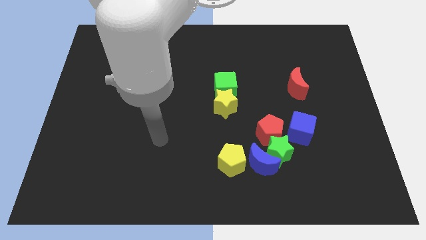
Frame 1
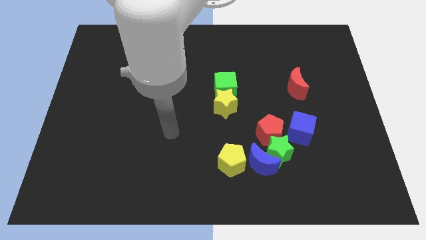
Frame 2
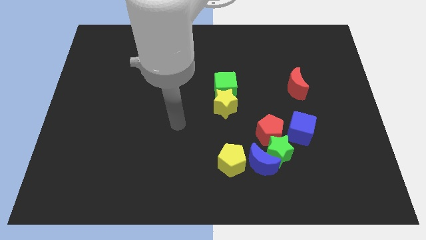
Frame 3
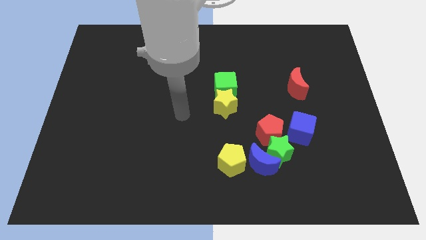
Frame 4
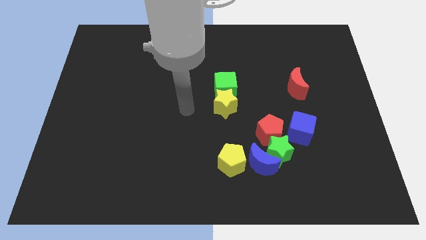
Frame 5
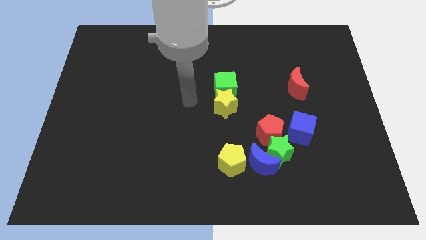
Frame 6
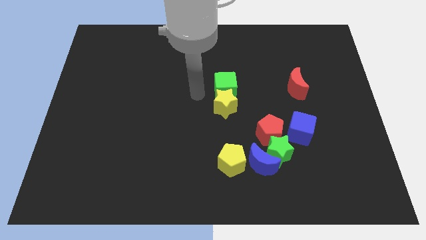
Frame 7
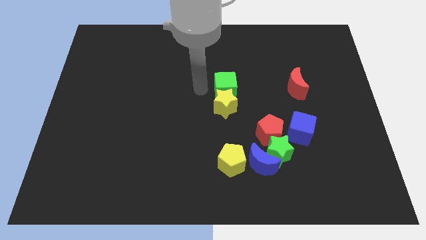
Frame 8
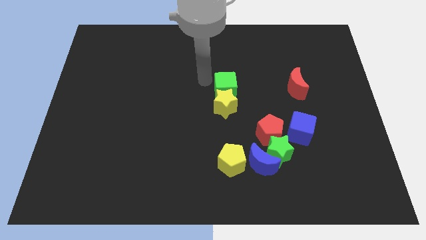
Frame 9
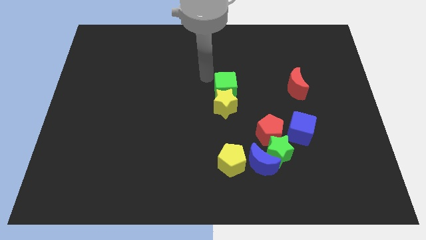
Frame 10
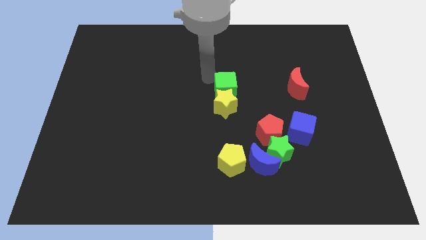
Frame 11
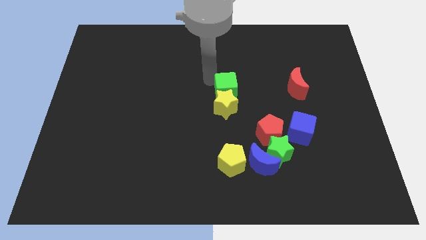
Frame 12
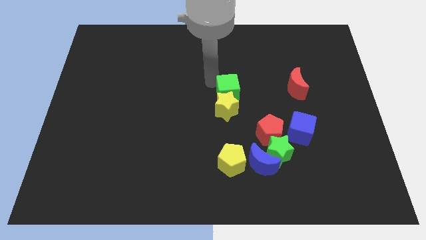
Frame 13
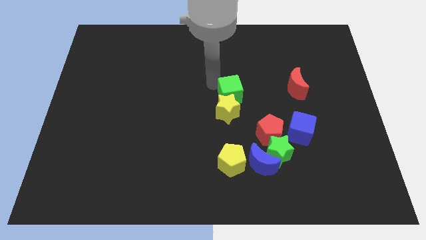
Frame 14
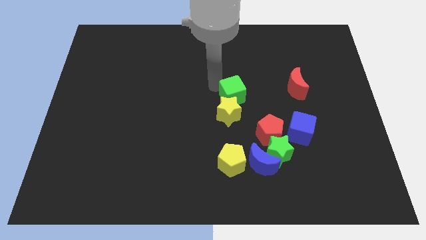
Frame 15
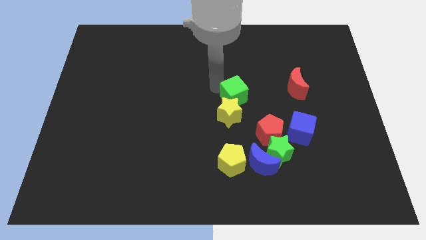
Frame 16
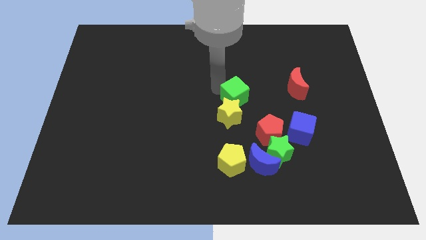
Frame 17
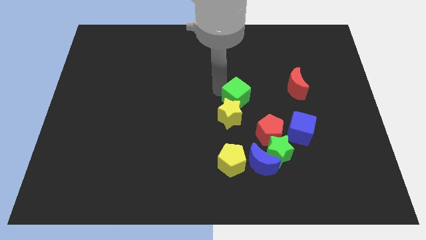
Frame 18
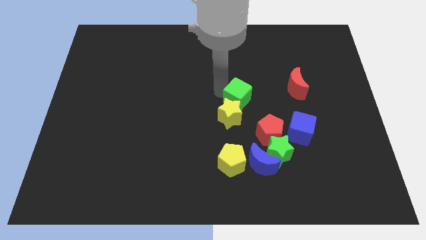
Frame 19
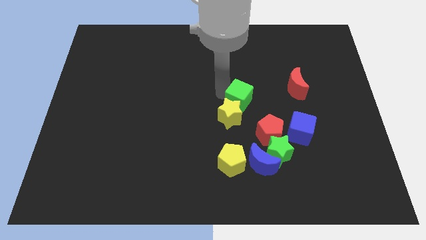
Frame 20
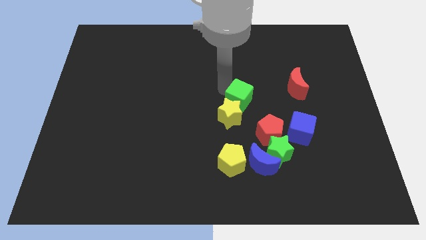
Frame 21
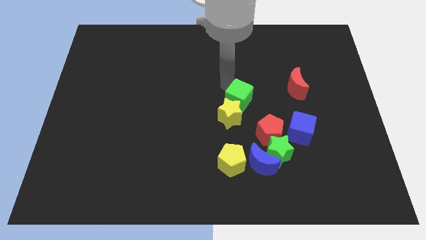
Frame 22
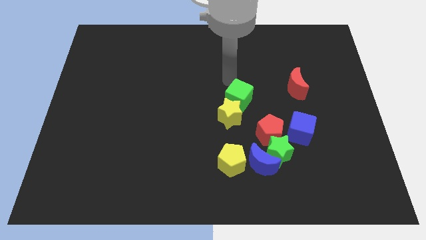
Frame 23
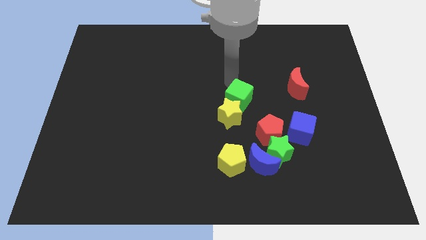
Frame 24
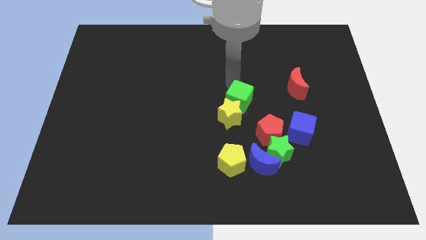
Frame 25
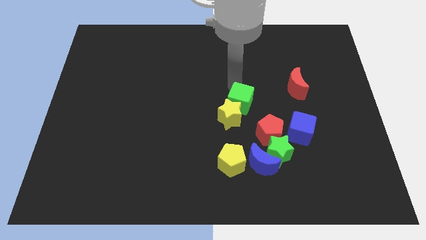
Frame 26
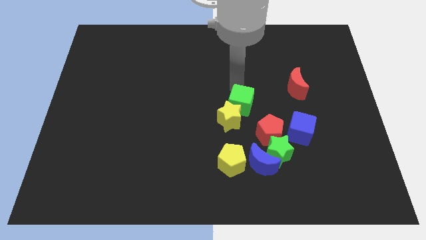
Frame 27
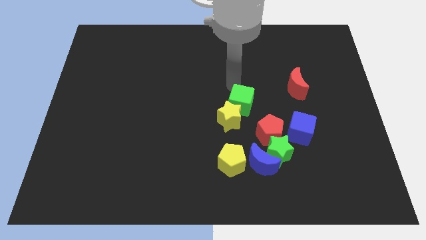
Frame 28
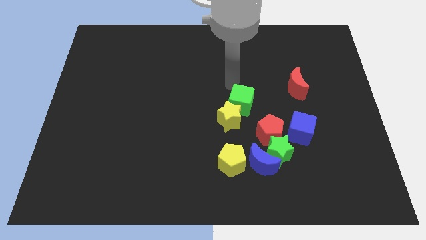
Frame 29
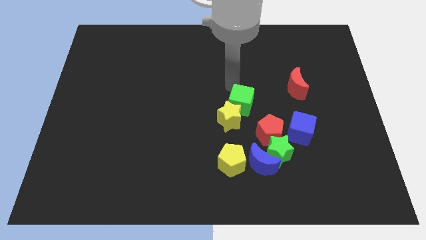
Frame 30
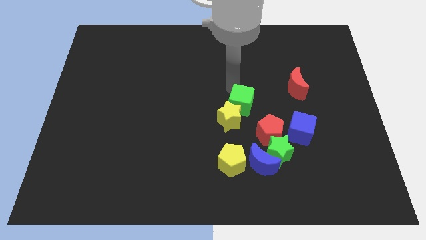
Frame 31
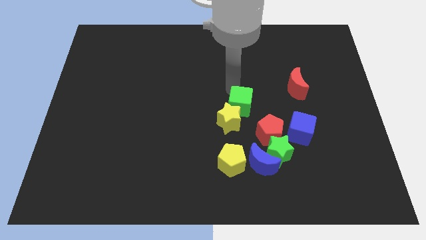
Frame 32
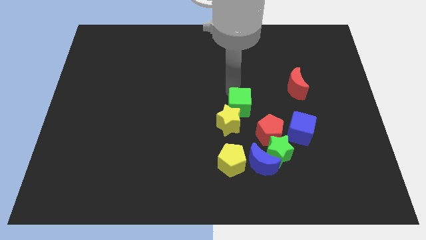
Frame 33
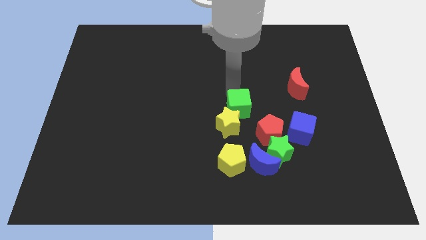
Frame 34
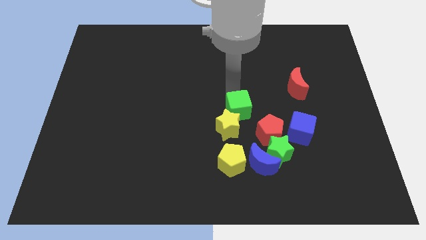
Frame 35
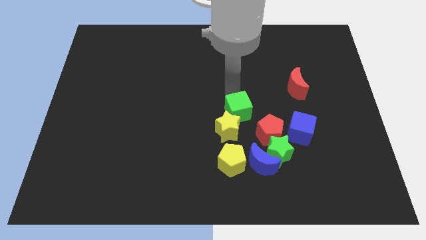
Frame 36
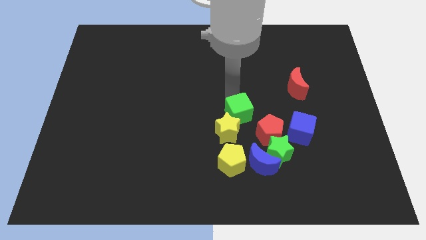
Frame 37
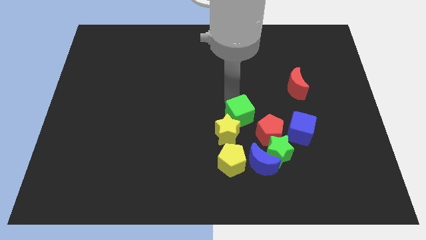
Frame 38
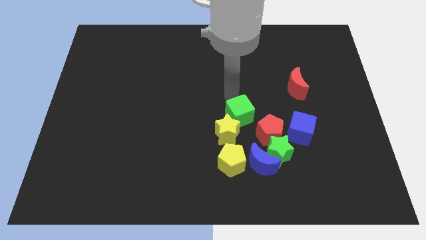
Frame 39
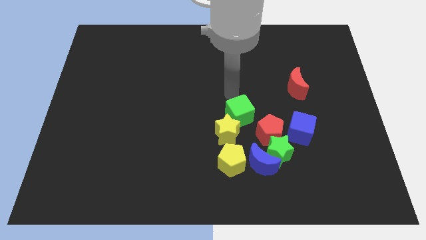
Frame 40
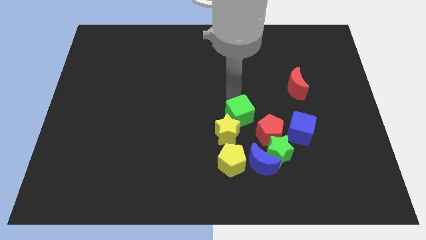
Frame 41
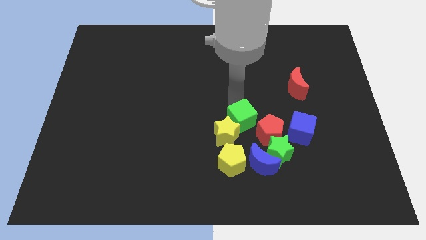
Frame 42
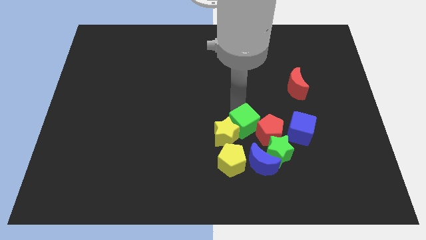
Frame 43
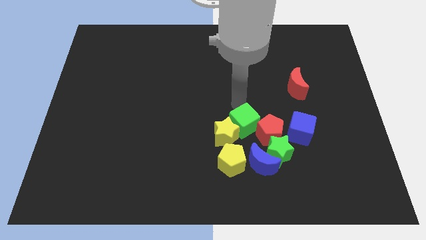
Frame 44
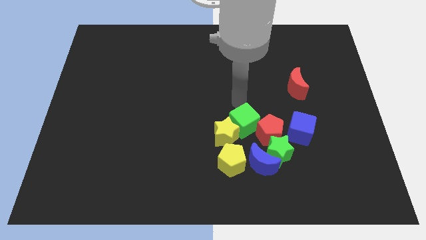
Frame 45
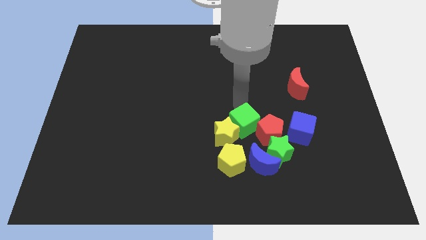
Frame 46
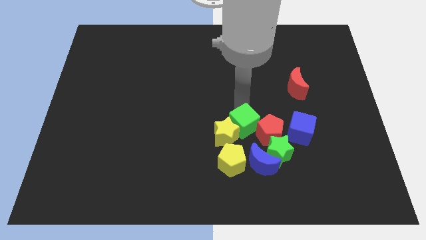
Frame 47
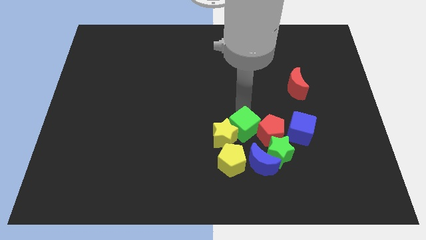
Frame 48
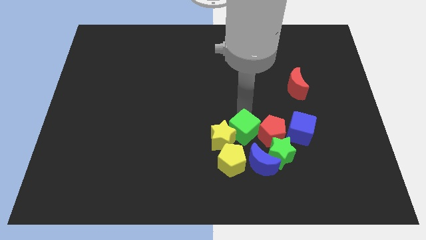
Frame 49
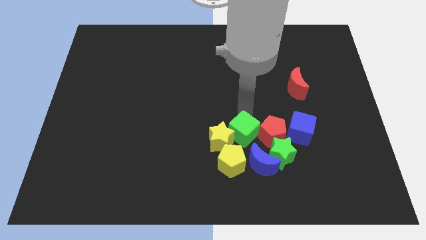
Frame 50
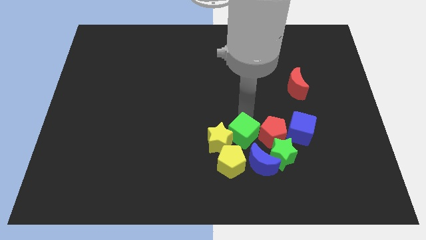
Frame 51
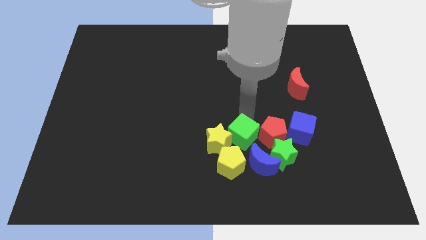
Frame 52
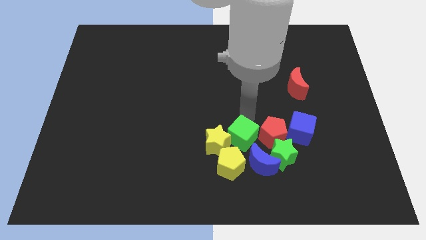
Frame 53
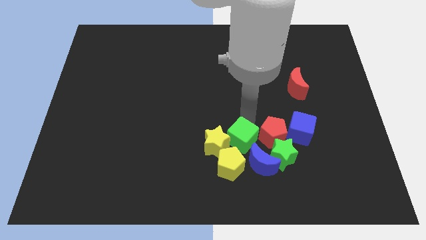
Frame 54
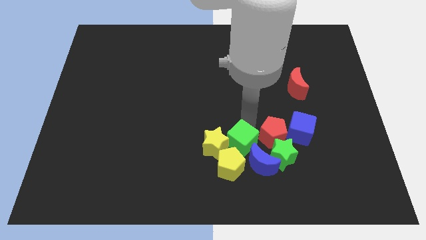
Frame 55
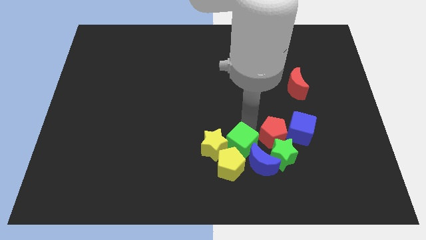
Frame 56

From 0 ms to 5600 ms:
move the green cube to the blue moon

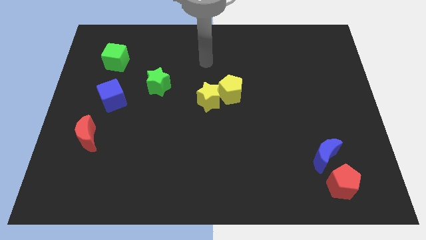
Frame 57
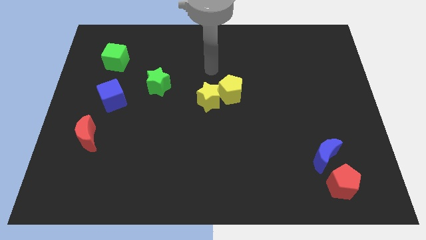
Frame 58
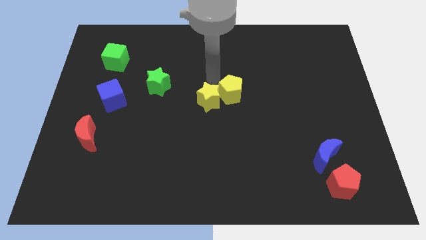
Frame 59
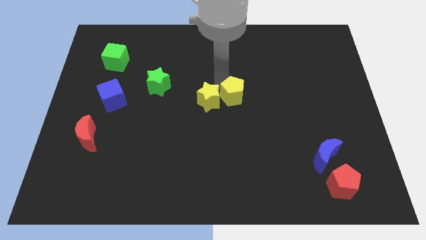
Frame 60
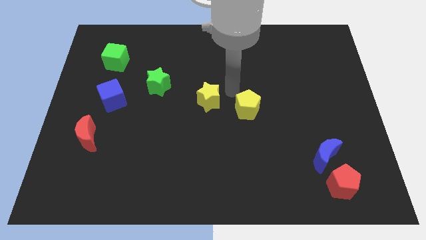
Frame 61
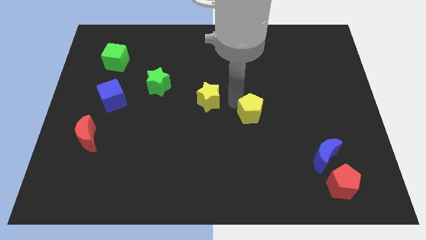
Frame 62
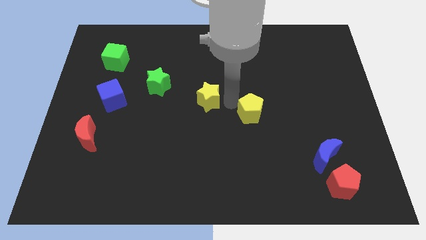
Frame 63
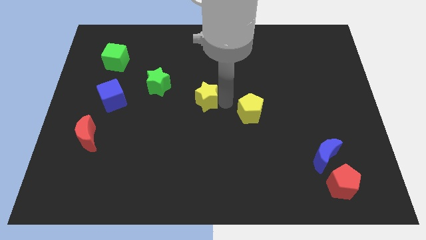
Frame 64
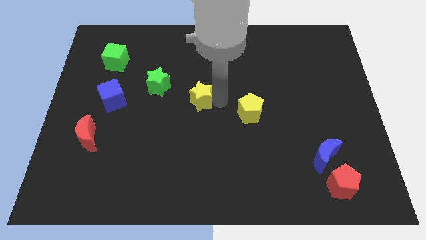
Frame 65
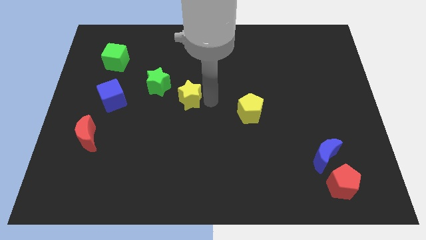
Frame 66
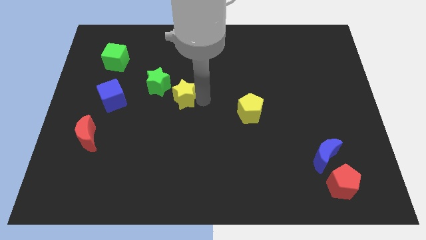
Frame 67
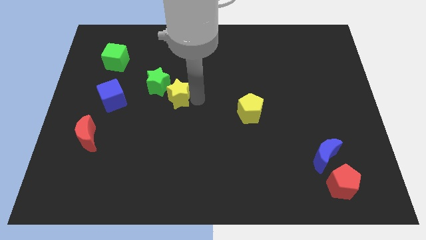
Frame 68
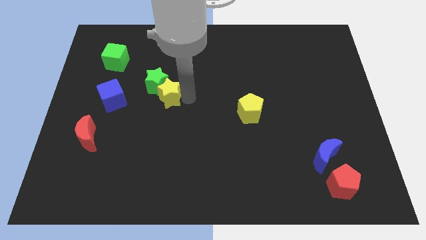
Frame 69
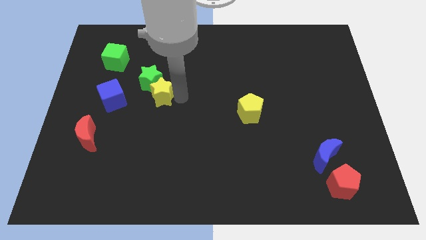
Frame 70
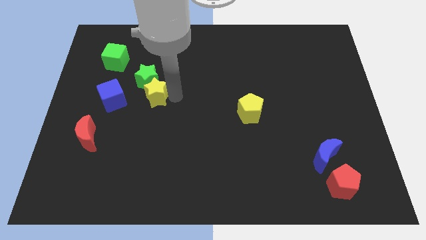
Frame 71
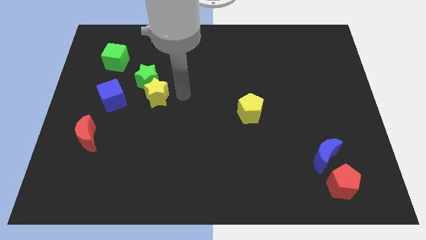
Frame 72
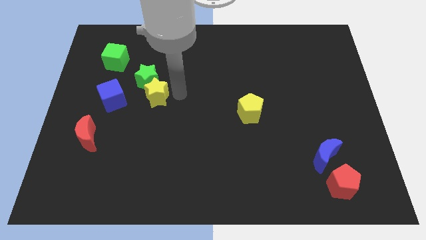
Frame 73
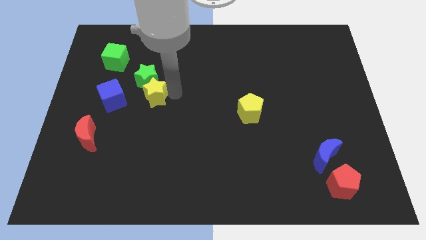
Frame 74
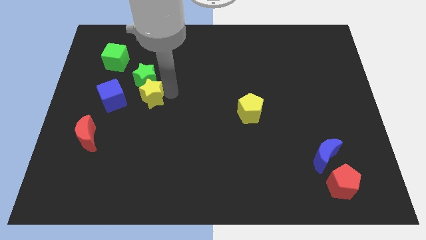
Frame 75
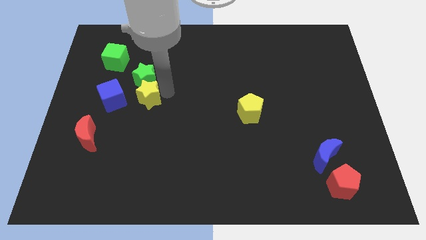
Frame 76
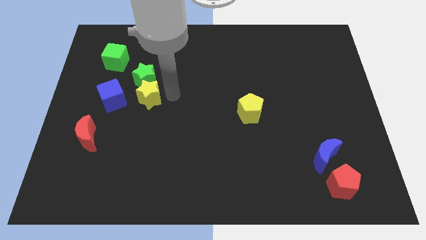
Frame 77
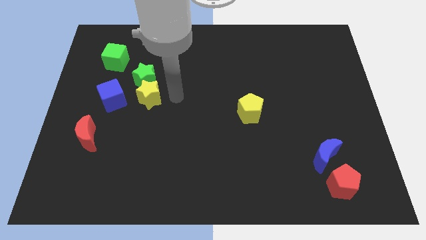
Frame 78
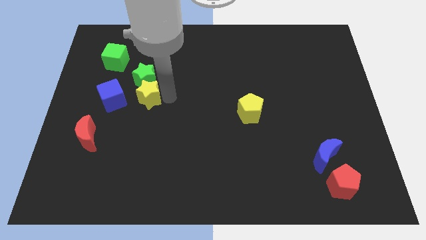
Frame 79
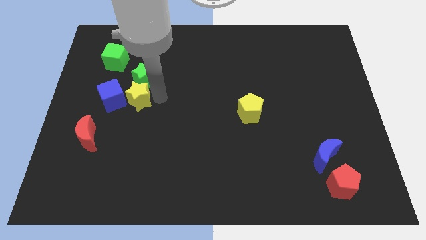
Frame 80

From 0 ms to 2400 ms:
move the yellow star towards the blue cube
